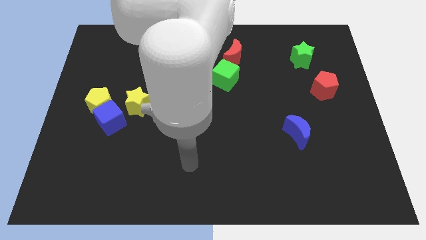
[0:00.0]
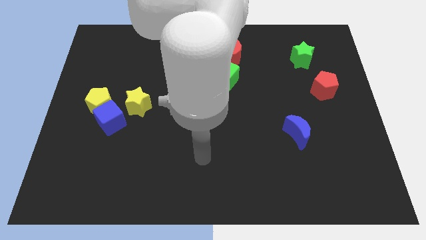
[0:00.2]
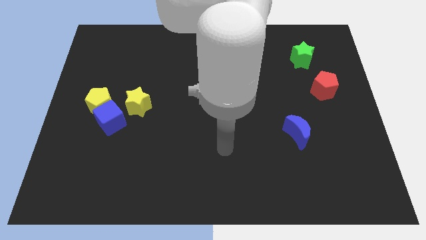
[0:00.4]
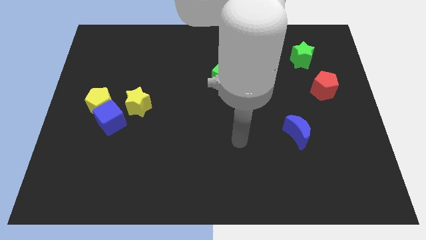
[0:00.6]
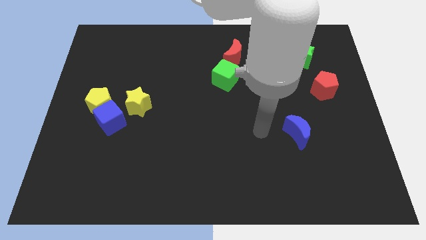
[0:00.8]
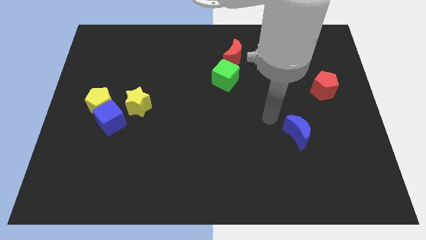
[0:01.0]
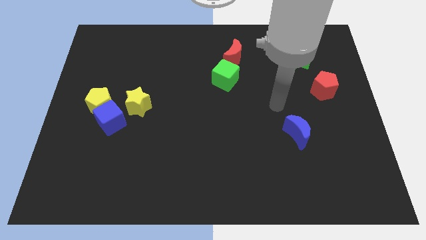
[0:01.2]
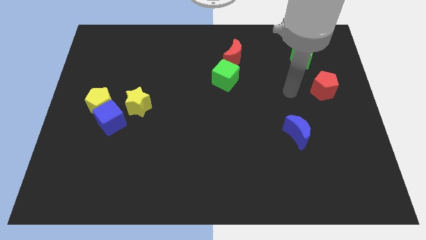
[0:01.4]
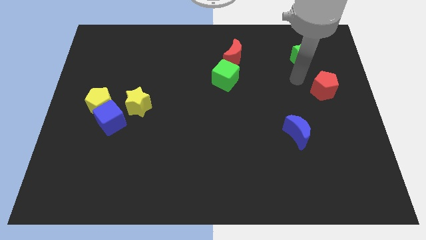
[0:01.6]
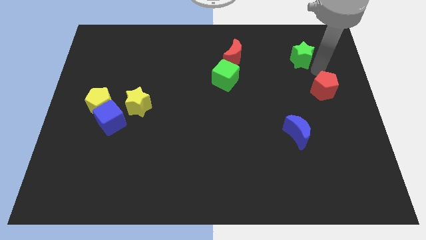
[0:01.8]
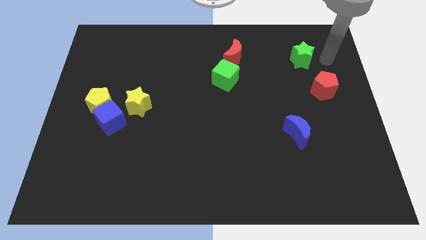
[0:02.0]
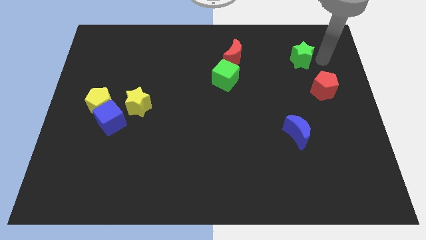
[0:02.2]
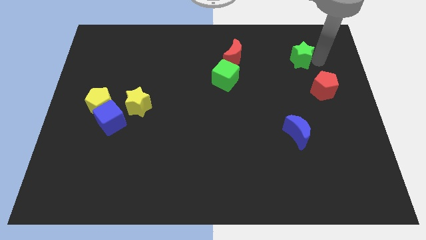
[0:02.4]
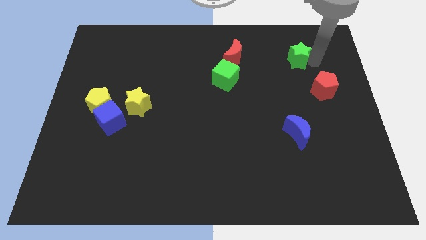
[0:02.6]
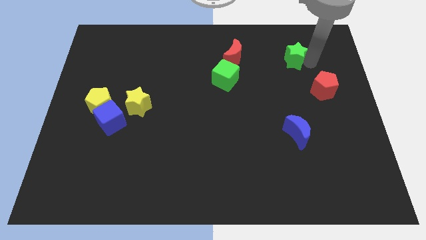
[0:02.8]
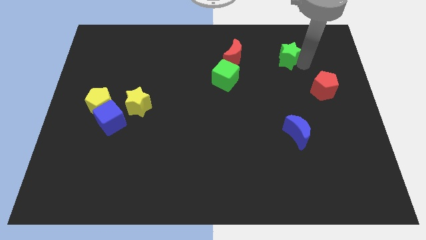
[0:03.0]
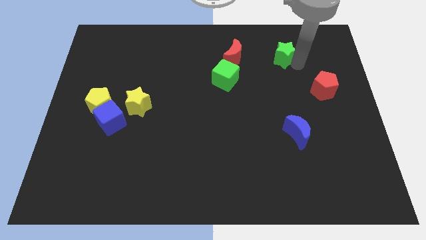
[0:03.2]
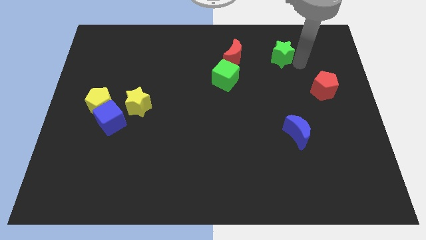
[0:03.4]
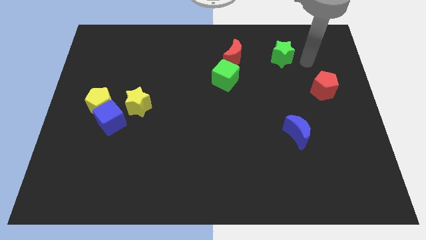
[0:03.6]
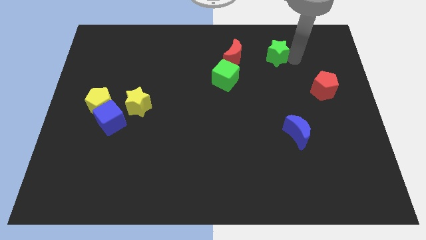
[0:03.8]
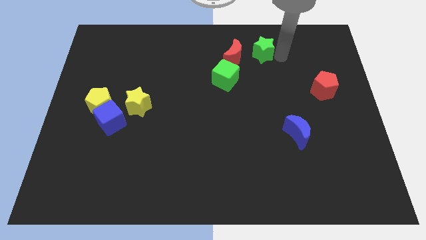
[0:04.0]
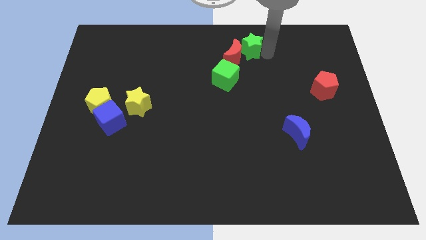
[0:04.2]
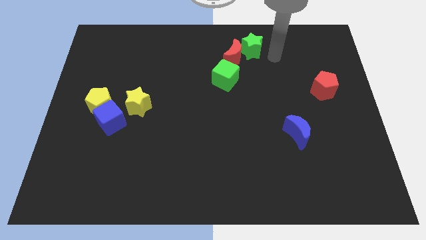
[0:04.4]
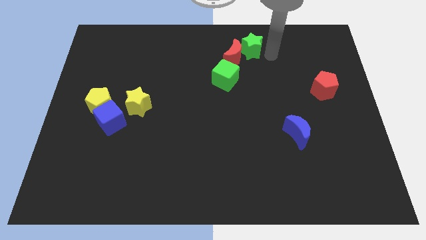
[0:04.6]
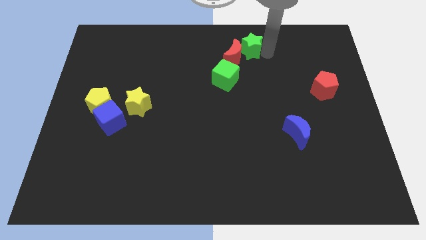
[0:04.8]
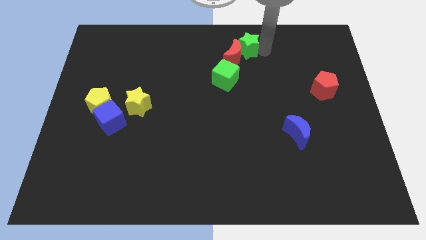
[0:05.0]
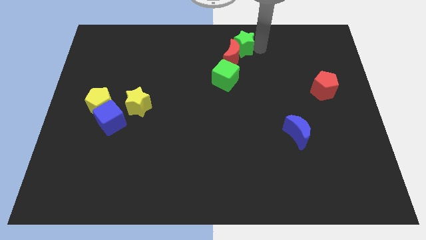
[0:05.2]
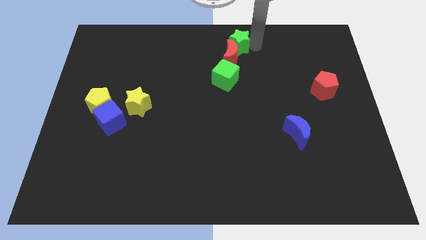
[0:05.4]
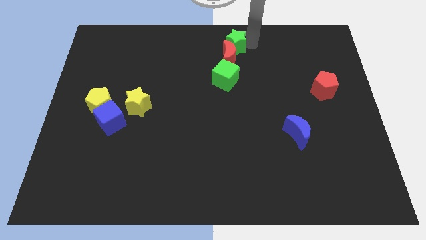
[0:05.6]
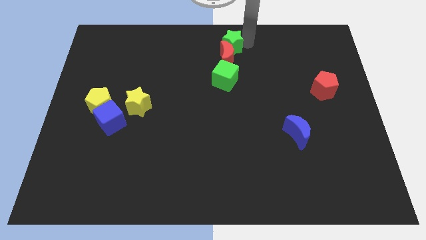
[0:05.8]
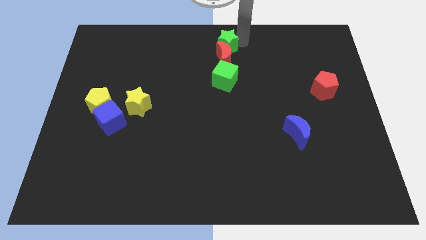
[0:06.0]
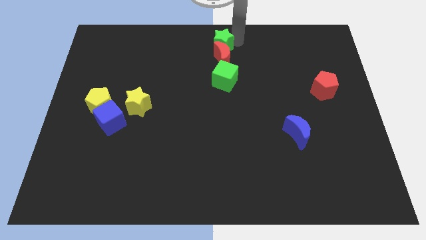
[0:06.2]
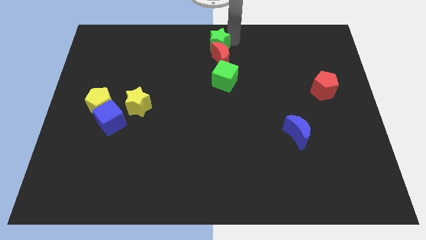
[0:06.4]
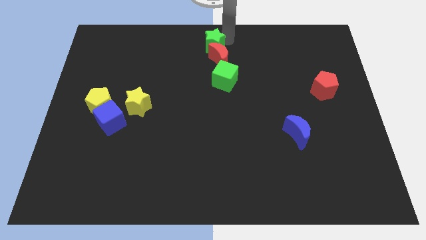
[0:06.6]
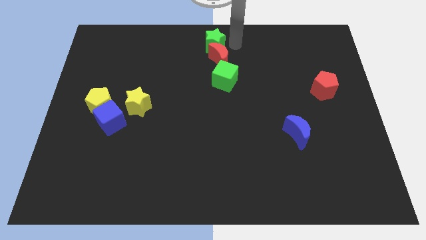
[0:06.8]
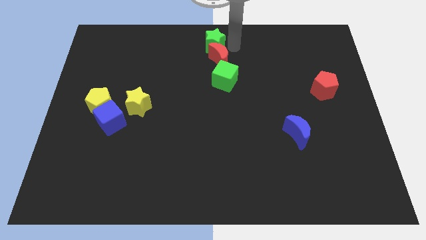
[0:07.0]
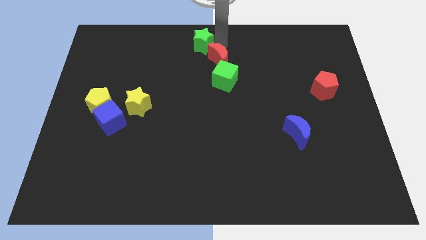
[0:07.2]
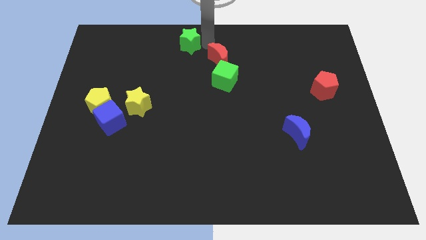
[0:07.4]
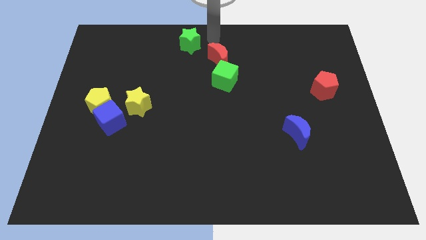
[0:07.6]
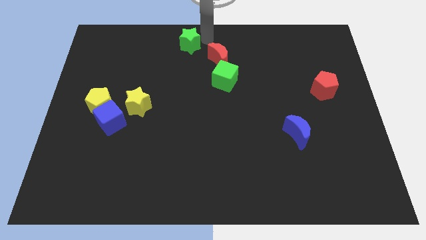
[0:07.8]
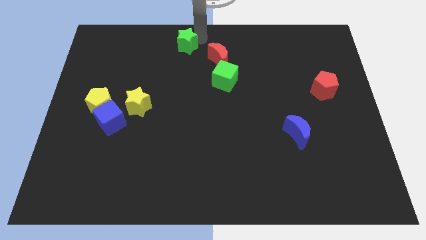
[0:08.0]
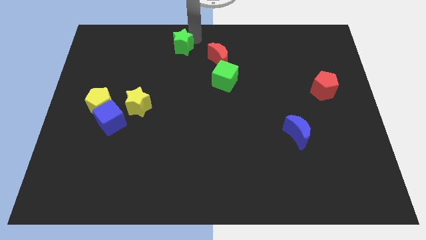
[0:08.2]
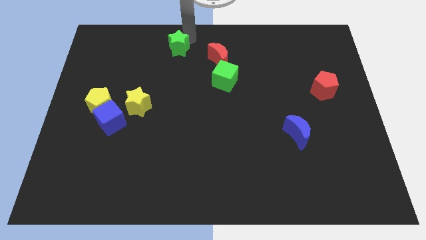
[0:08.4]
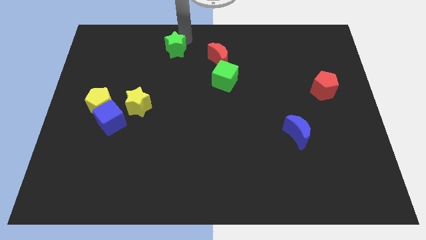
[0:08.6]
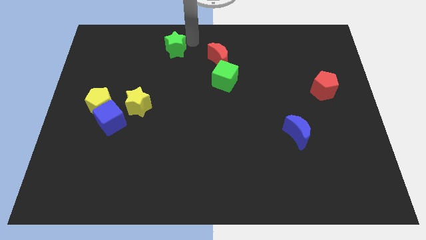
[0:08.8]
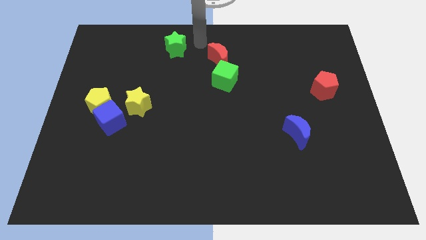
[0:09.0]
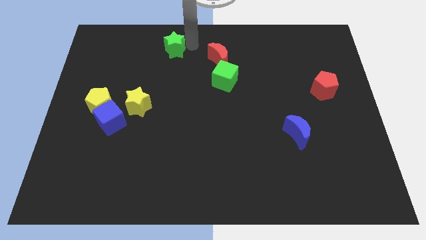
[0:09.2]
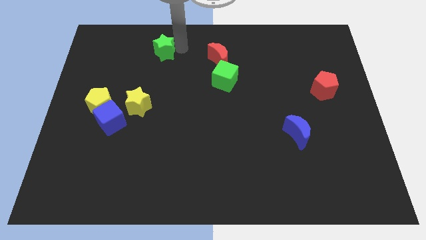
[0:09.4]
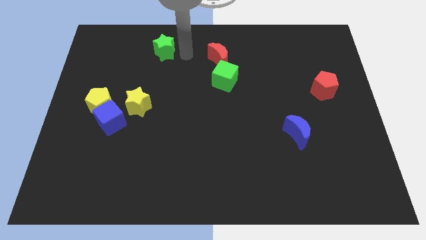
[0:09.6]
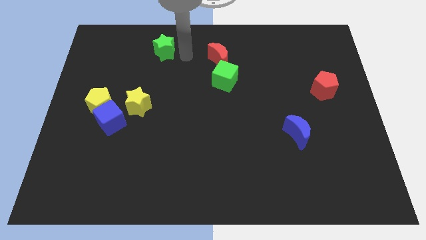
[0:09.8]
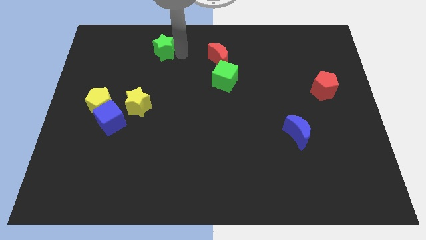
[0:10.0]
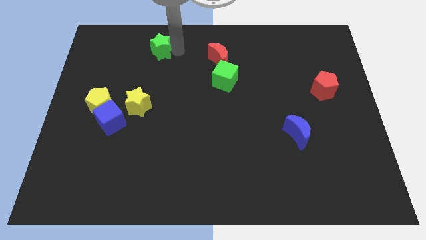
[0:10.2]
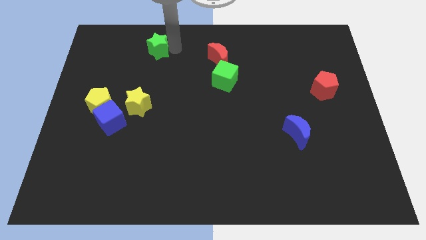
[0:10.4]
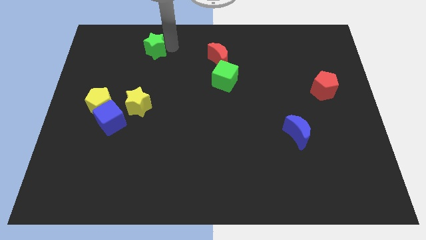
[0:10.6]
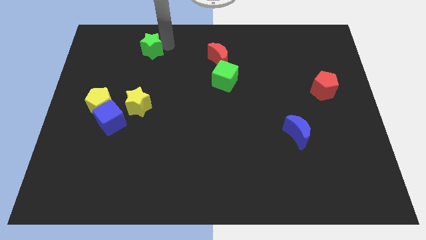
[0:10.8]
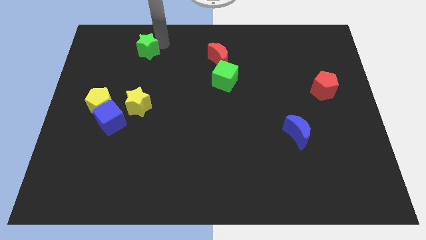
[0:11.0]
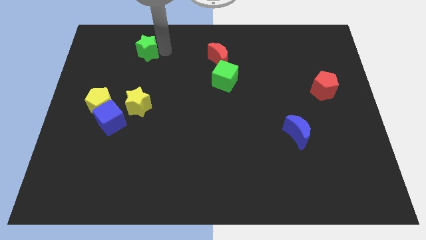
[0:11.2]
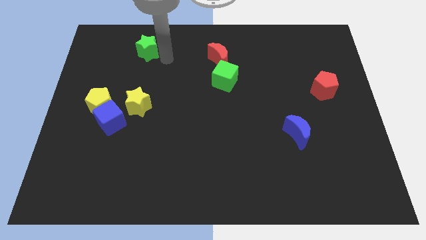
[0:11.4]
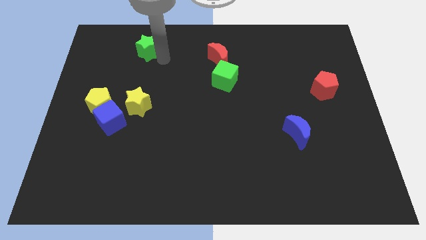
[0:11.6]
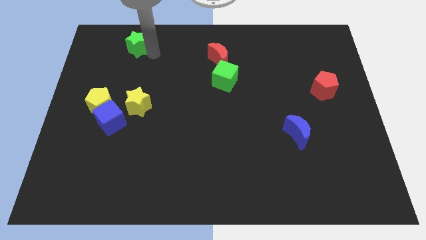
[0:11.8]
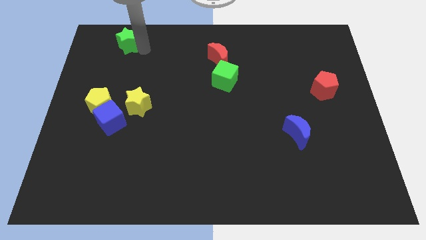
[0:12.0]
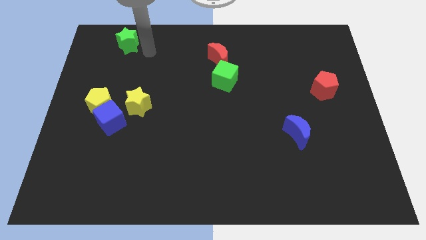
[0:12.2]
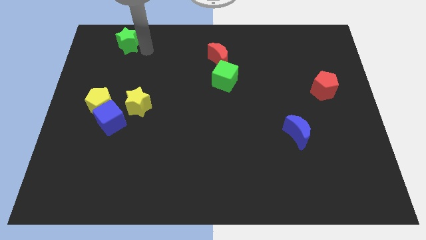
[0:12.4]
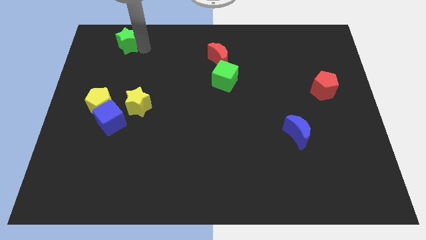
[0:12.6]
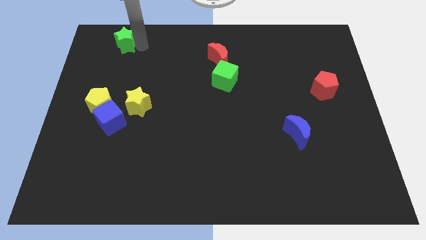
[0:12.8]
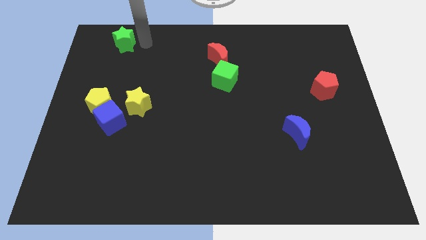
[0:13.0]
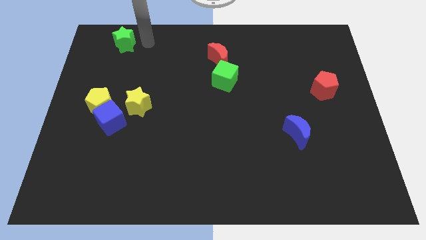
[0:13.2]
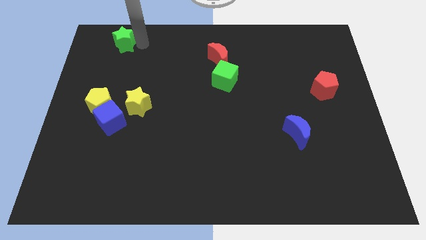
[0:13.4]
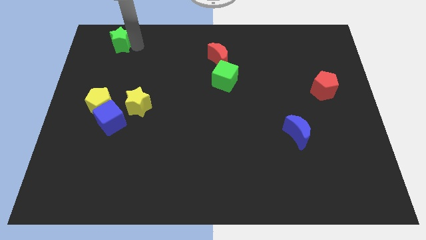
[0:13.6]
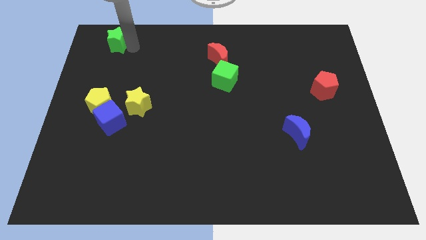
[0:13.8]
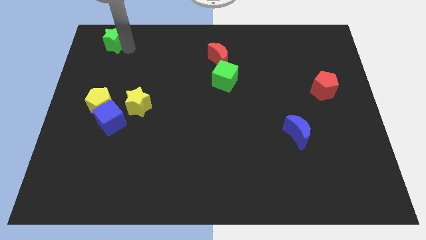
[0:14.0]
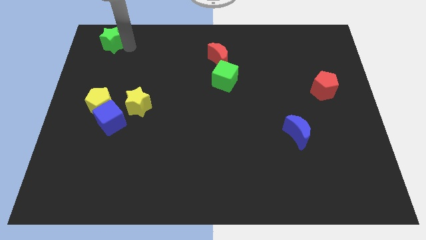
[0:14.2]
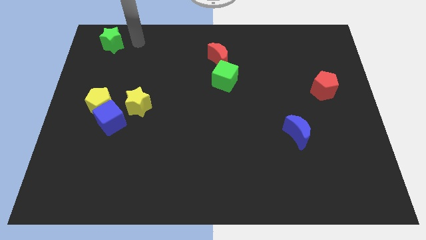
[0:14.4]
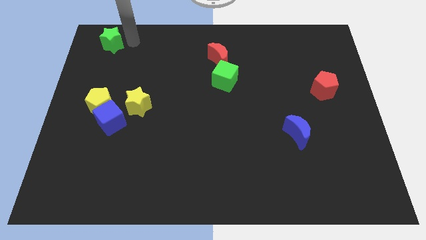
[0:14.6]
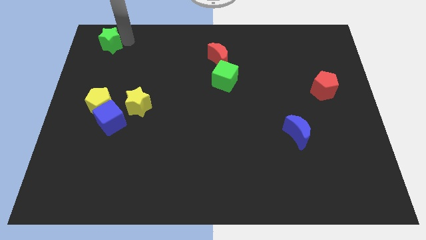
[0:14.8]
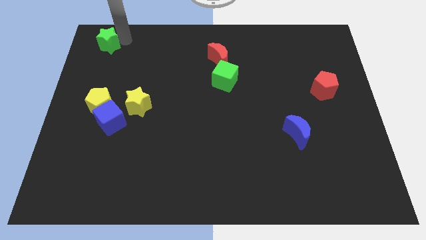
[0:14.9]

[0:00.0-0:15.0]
put the green star to the top left
